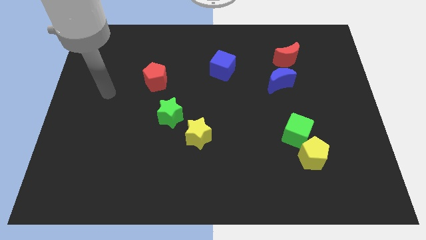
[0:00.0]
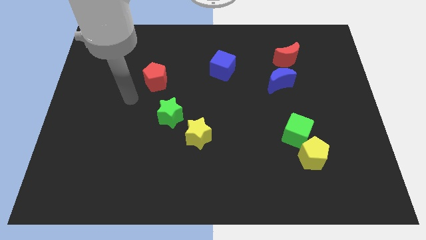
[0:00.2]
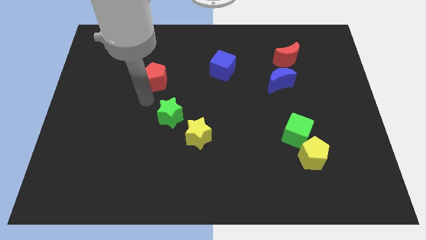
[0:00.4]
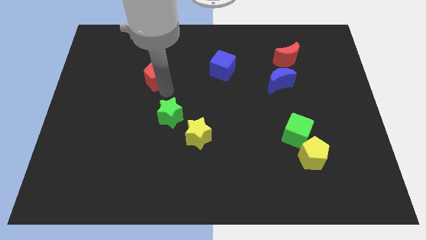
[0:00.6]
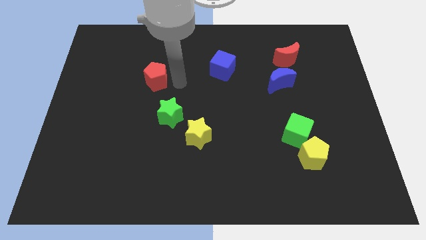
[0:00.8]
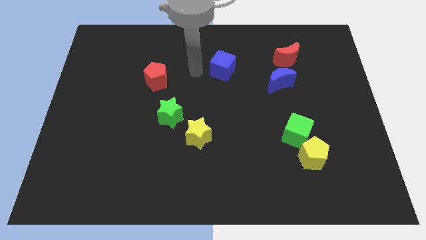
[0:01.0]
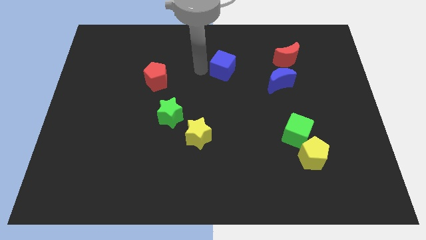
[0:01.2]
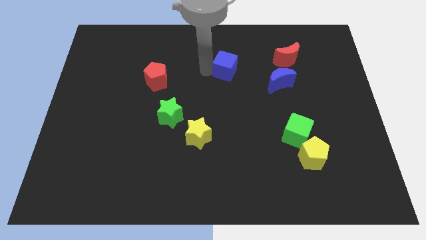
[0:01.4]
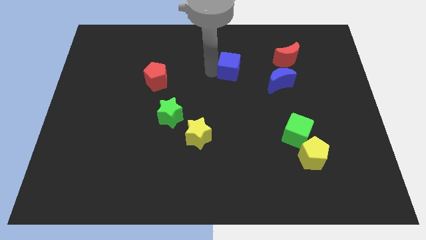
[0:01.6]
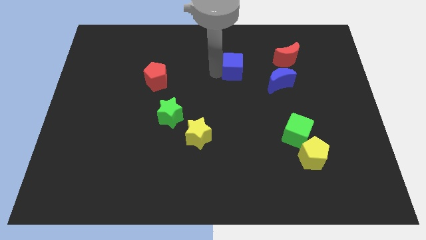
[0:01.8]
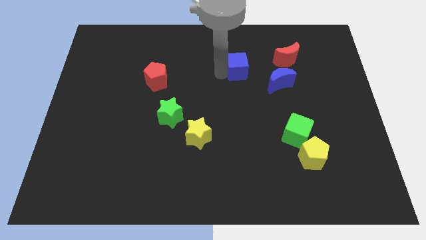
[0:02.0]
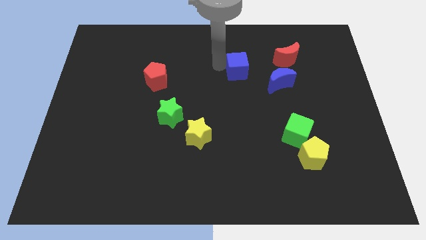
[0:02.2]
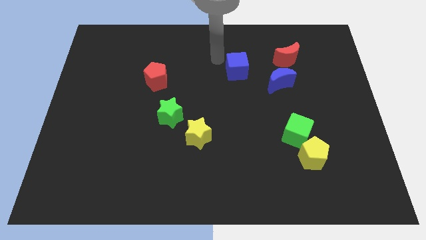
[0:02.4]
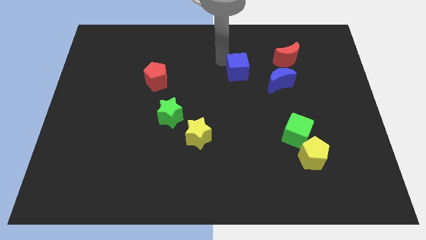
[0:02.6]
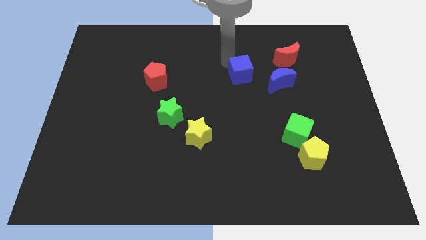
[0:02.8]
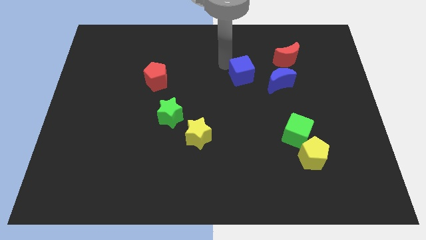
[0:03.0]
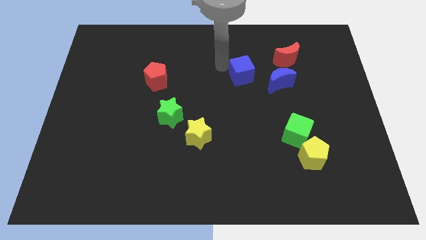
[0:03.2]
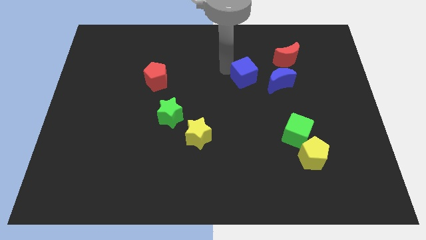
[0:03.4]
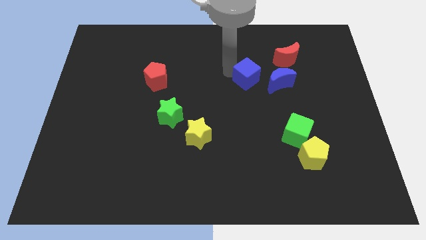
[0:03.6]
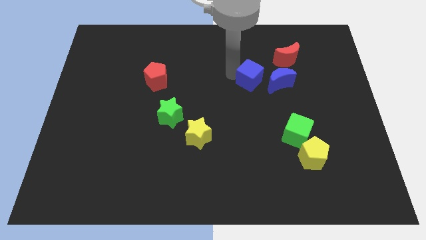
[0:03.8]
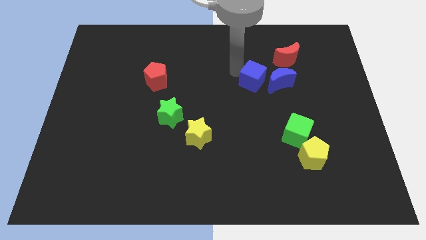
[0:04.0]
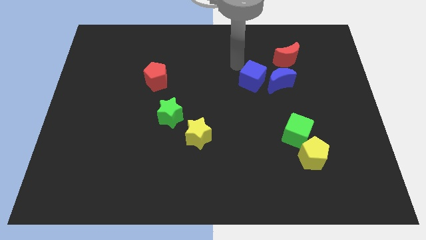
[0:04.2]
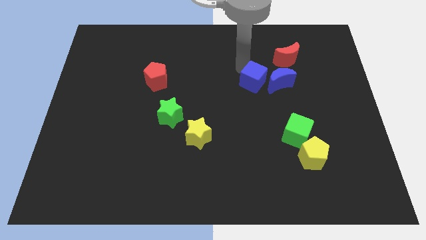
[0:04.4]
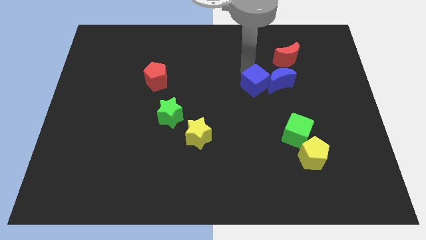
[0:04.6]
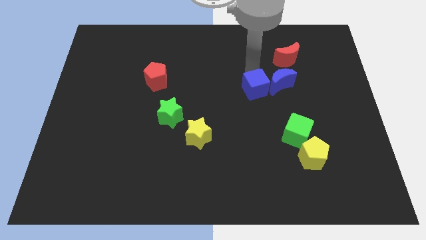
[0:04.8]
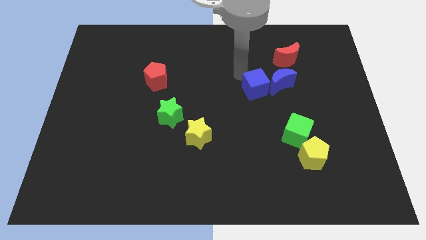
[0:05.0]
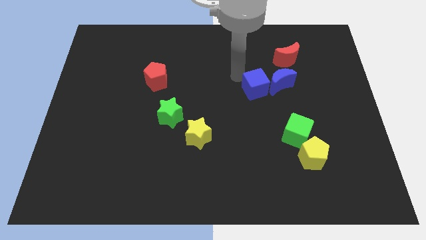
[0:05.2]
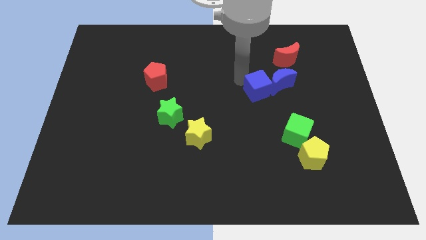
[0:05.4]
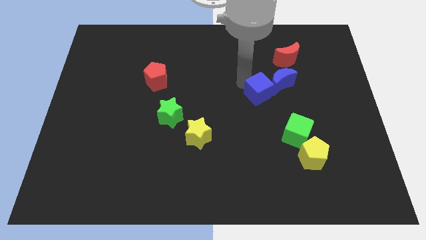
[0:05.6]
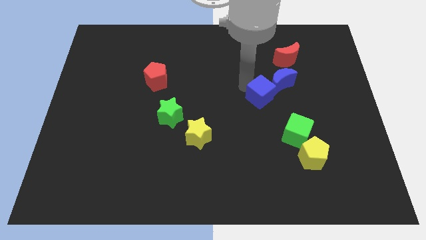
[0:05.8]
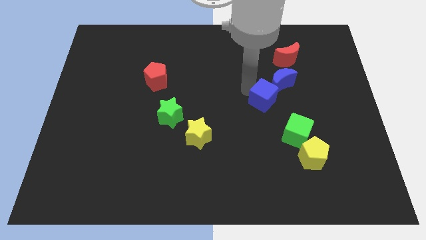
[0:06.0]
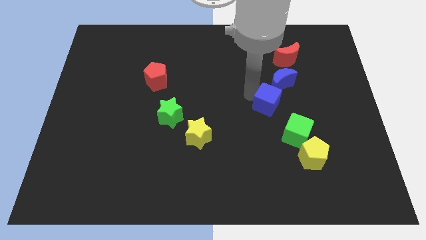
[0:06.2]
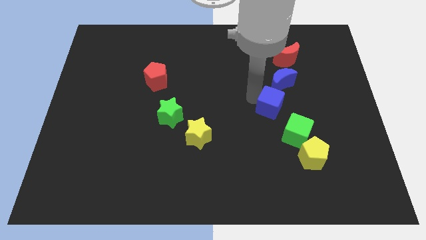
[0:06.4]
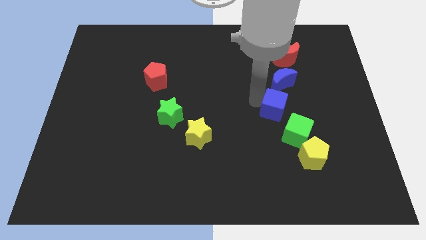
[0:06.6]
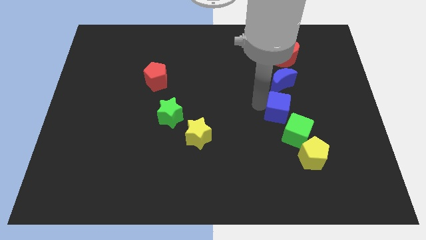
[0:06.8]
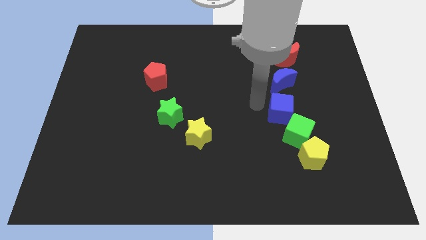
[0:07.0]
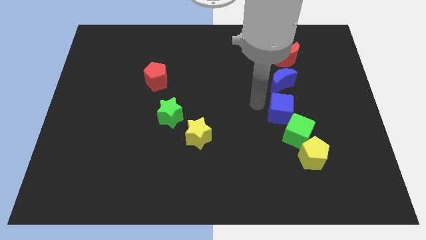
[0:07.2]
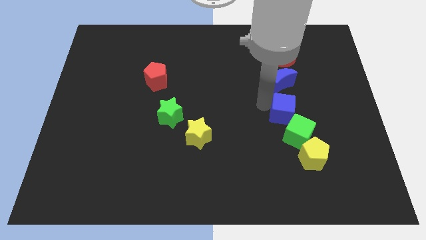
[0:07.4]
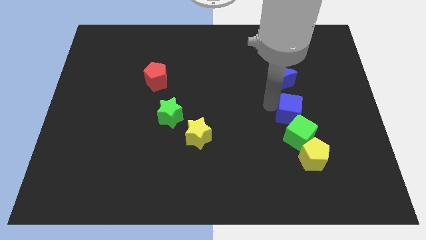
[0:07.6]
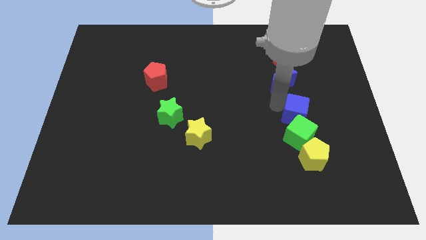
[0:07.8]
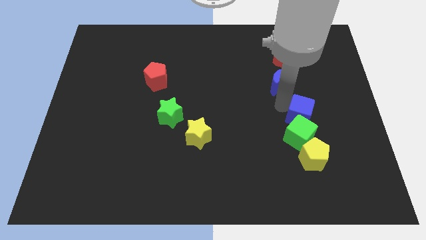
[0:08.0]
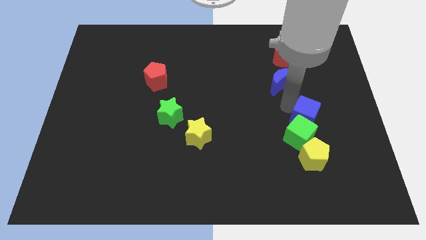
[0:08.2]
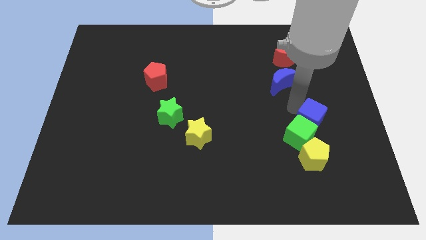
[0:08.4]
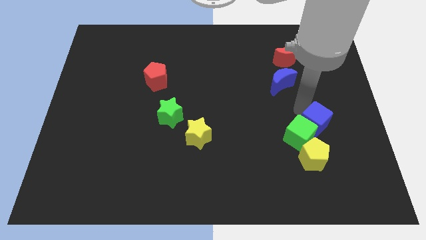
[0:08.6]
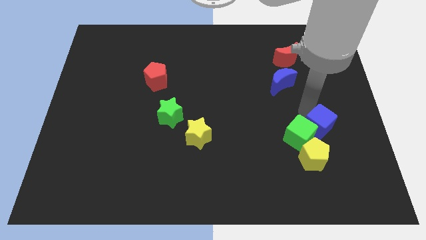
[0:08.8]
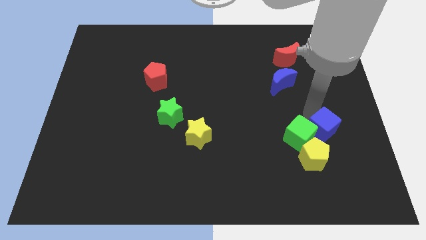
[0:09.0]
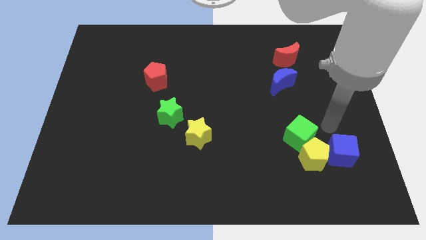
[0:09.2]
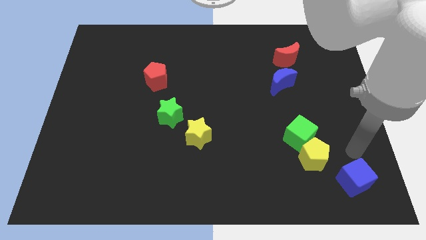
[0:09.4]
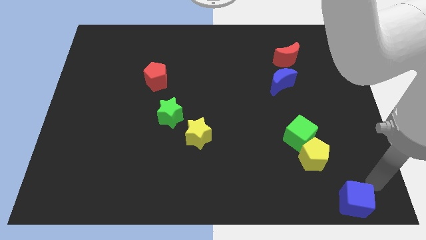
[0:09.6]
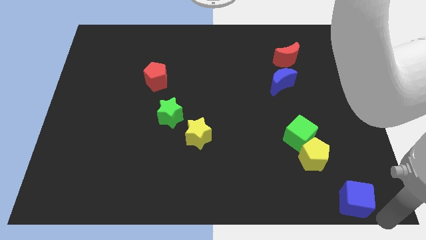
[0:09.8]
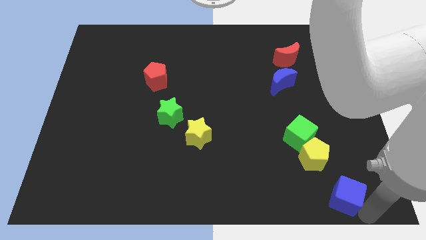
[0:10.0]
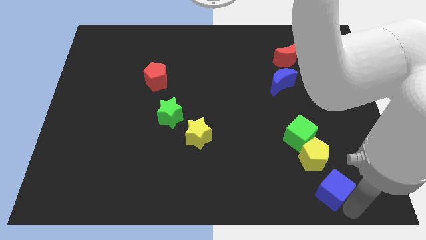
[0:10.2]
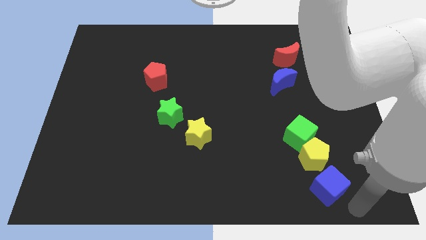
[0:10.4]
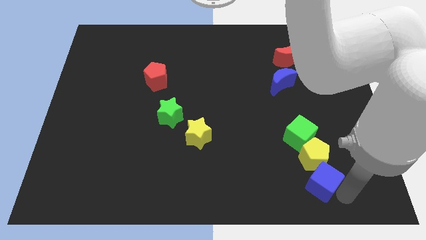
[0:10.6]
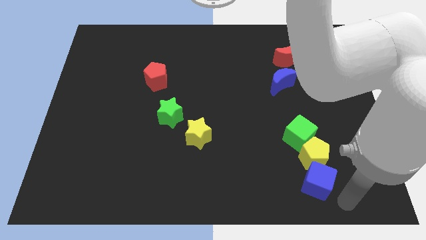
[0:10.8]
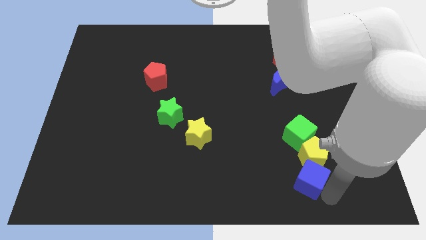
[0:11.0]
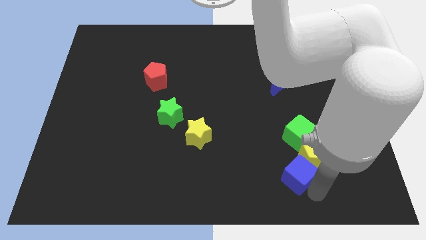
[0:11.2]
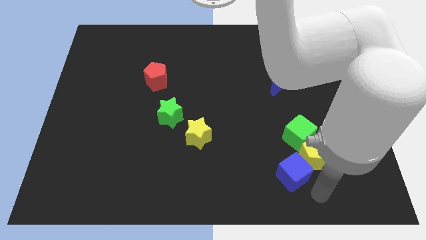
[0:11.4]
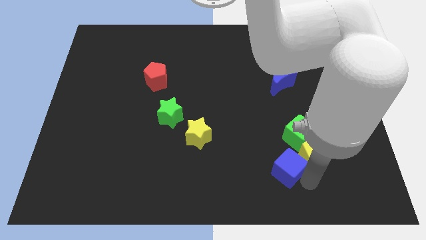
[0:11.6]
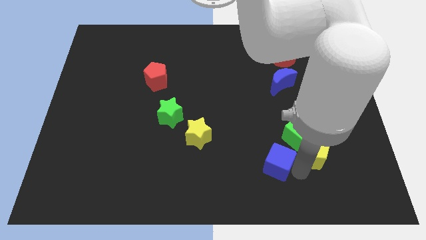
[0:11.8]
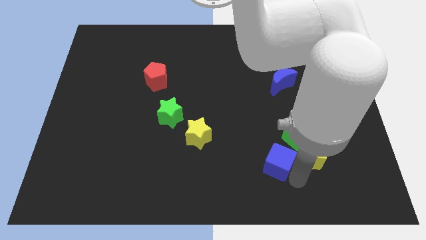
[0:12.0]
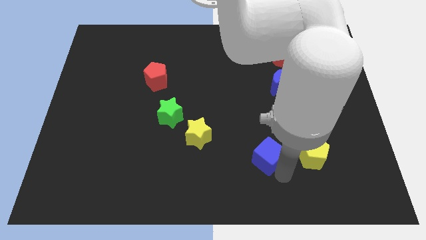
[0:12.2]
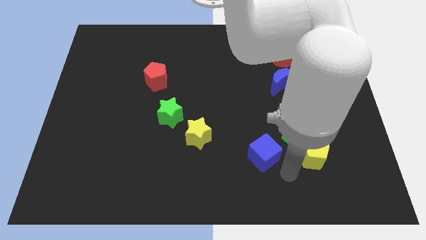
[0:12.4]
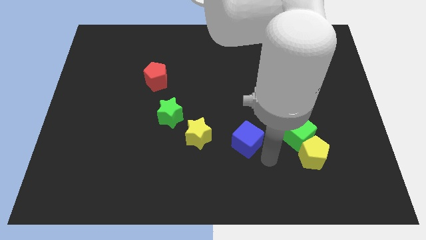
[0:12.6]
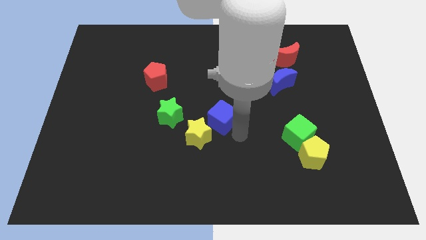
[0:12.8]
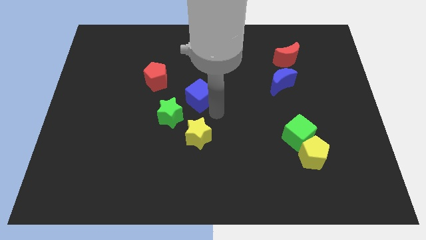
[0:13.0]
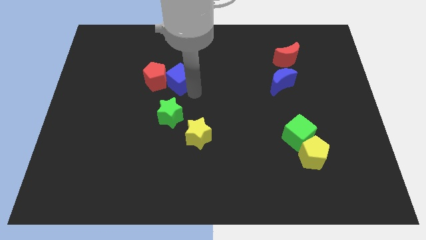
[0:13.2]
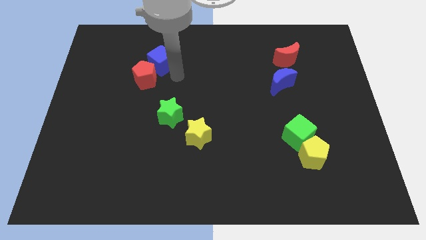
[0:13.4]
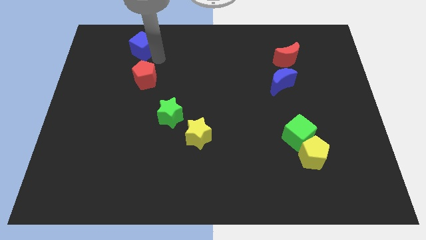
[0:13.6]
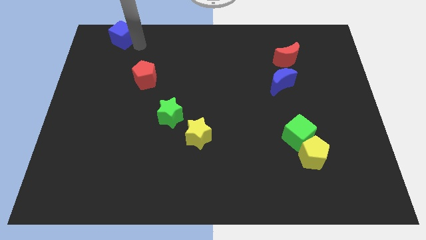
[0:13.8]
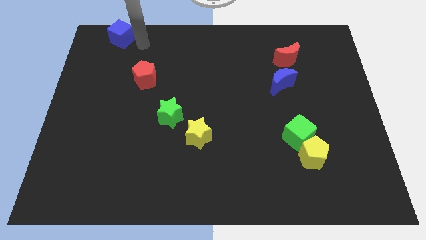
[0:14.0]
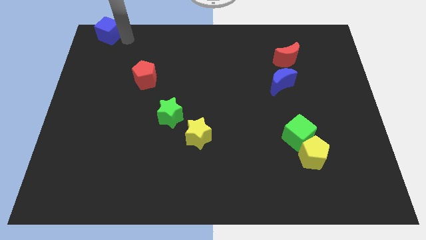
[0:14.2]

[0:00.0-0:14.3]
slide the blue cube to the upper left corner

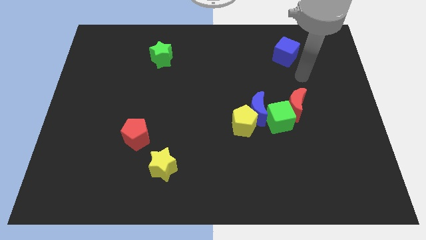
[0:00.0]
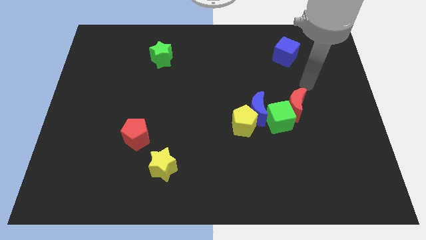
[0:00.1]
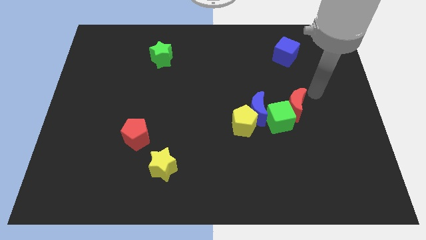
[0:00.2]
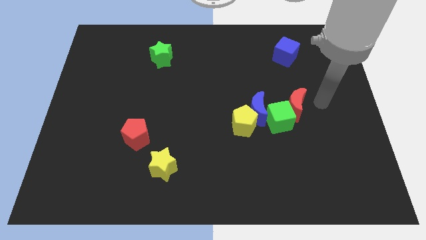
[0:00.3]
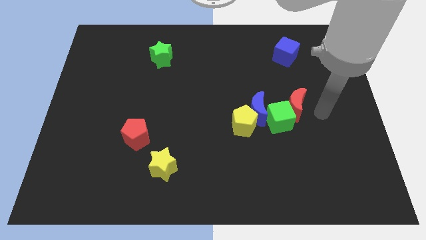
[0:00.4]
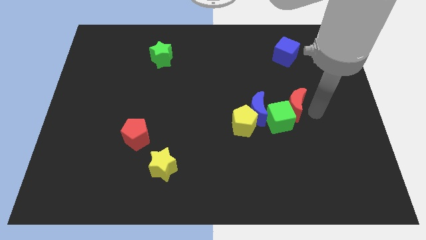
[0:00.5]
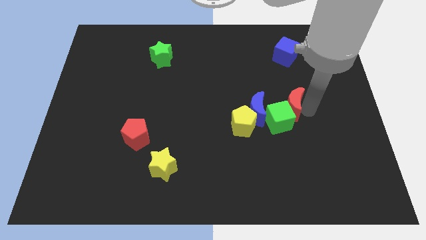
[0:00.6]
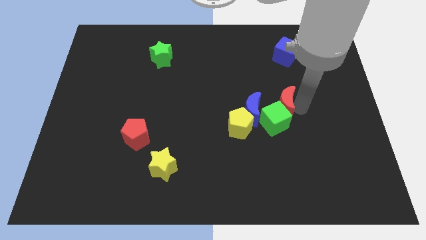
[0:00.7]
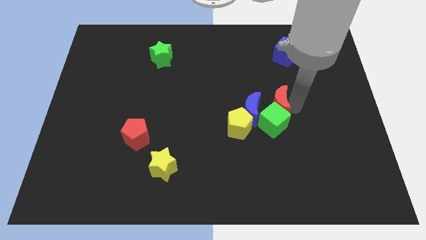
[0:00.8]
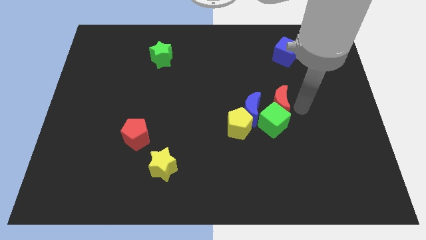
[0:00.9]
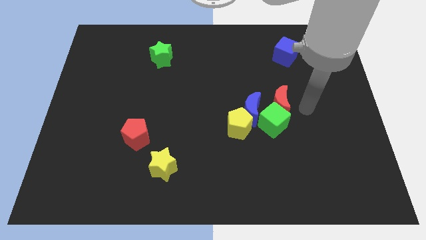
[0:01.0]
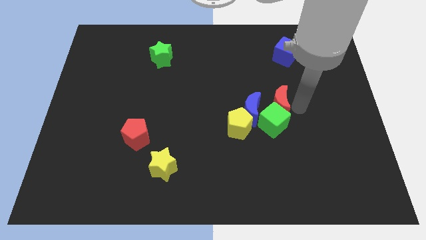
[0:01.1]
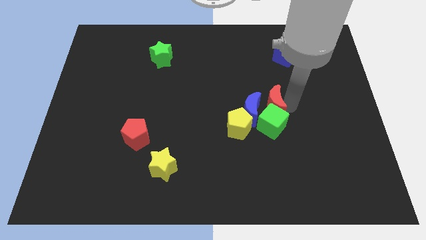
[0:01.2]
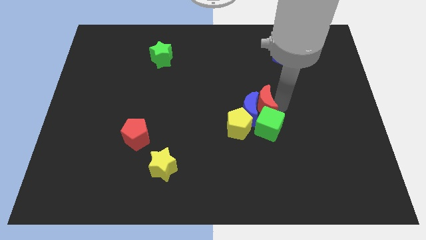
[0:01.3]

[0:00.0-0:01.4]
slide the red moon to the center of the board
